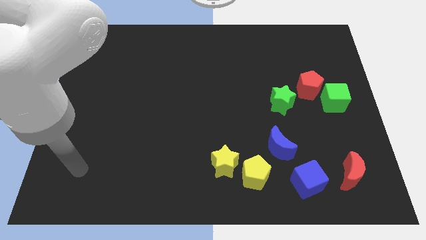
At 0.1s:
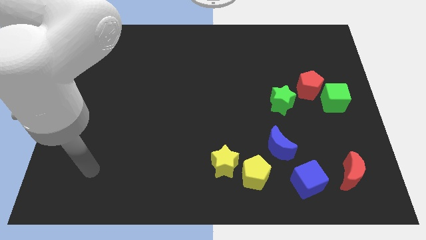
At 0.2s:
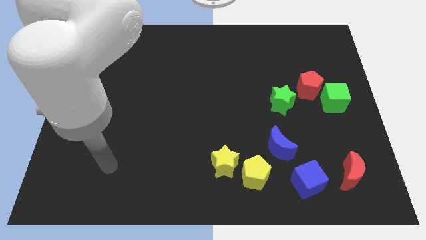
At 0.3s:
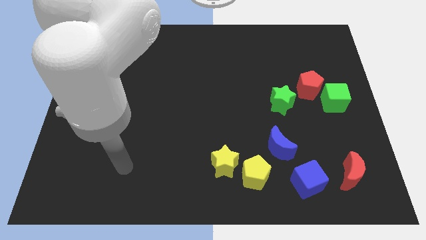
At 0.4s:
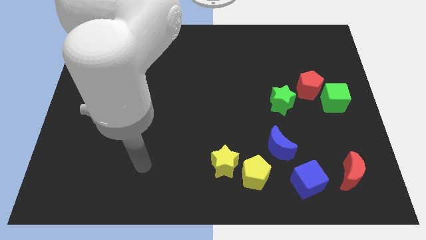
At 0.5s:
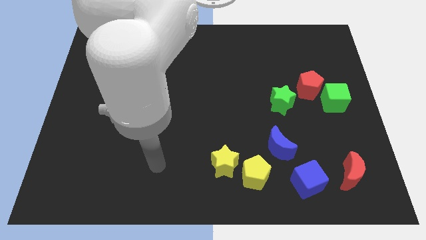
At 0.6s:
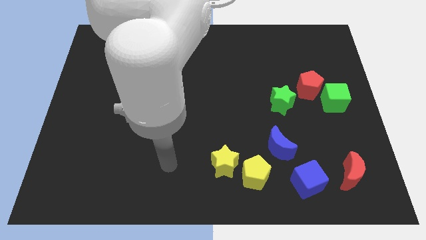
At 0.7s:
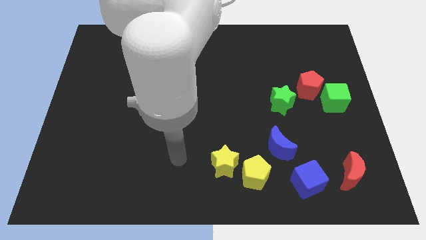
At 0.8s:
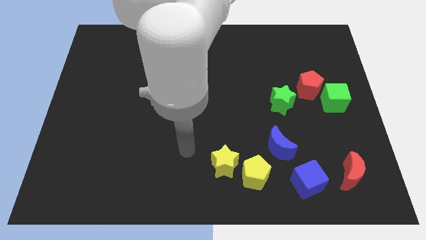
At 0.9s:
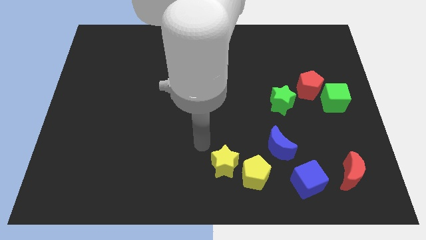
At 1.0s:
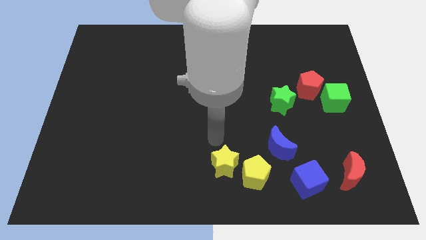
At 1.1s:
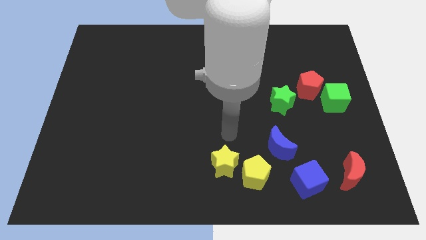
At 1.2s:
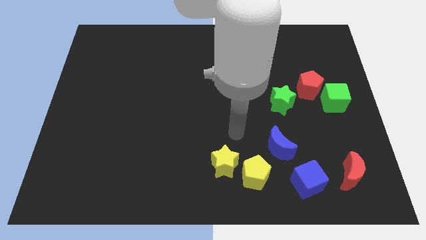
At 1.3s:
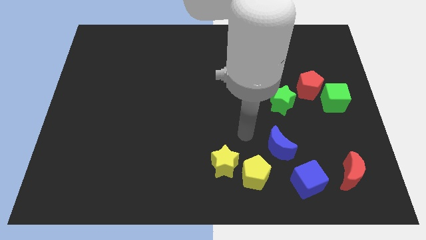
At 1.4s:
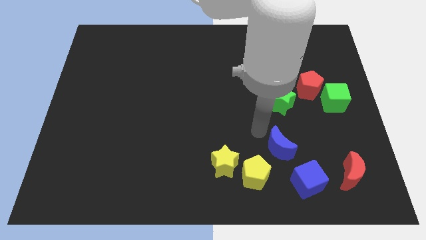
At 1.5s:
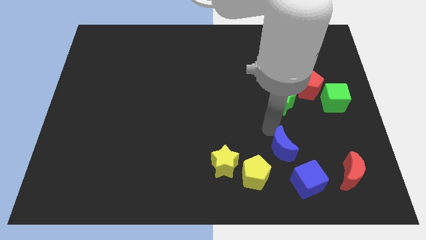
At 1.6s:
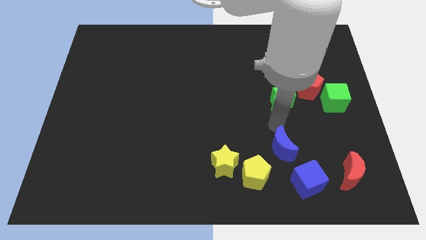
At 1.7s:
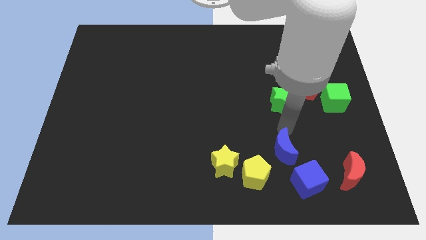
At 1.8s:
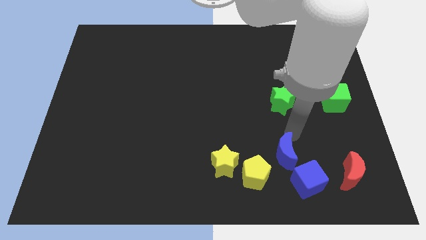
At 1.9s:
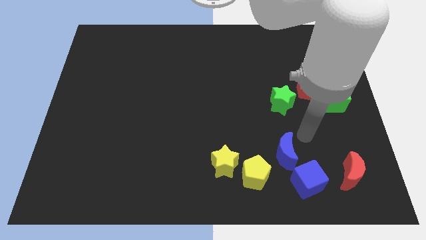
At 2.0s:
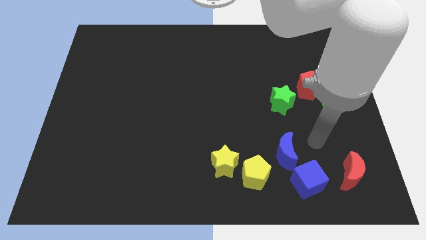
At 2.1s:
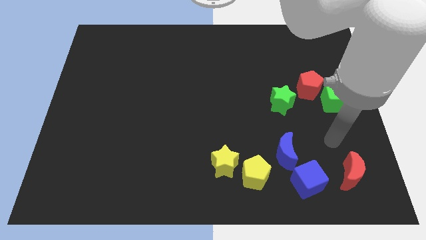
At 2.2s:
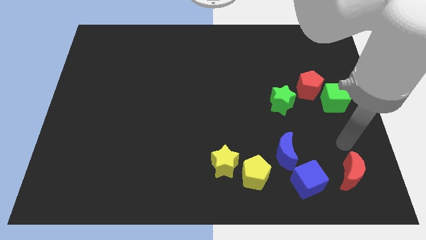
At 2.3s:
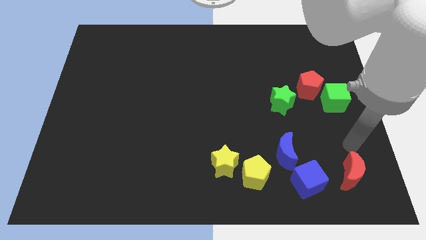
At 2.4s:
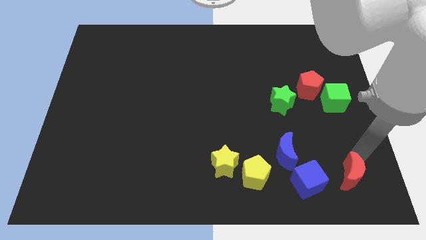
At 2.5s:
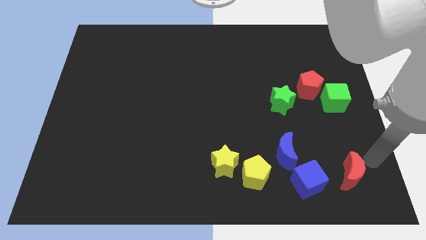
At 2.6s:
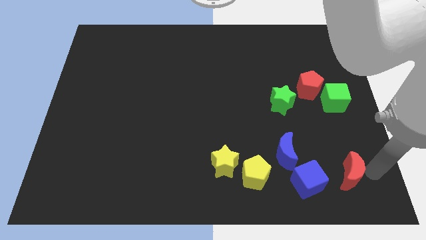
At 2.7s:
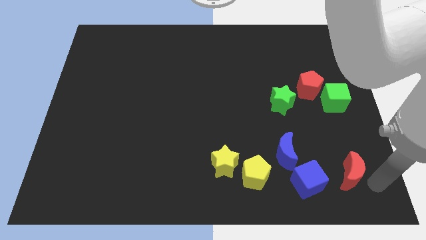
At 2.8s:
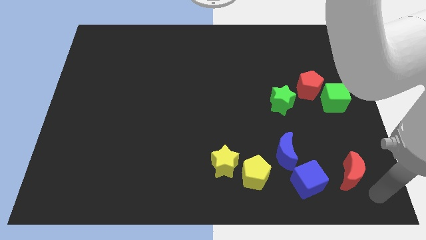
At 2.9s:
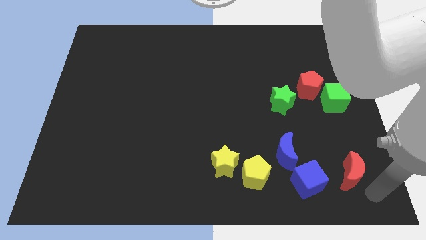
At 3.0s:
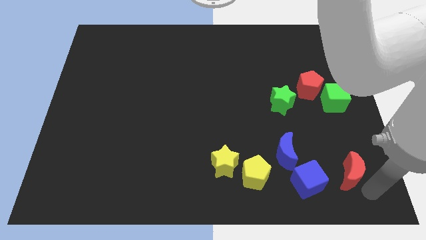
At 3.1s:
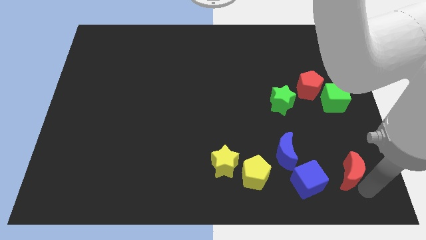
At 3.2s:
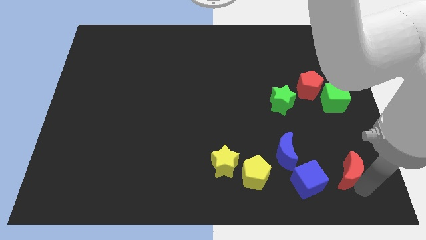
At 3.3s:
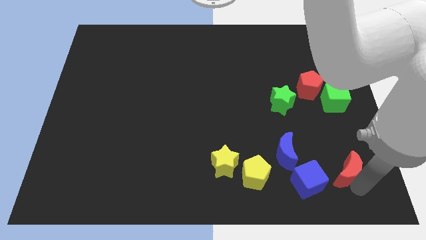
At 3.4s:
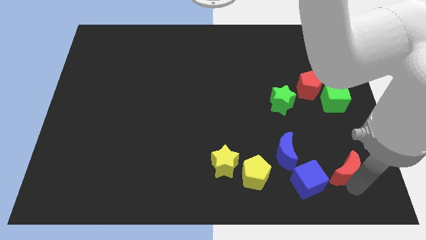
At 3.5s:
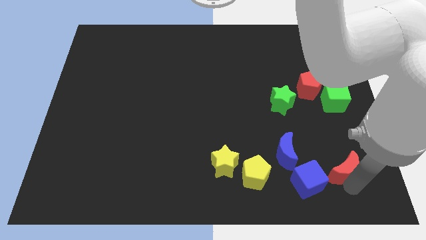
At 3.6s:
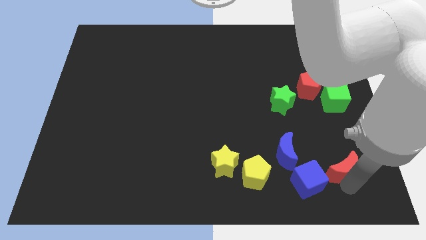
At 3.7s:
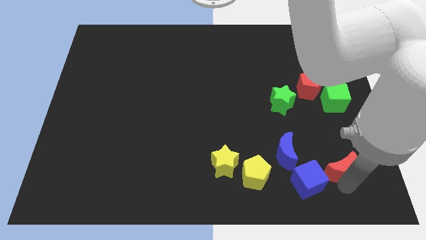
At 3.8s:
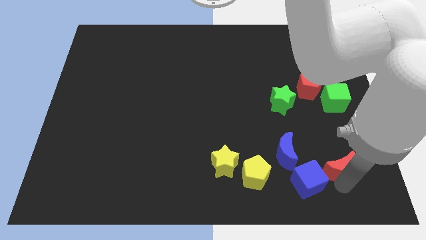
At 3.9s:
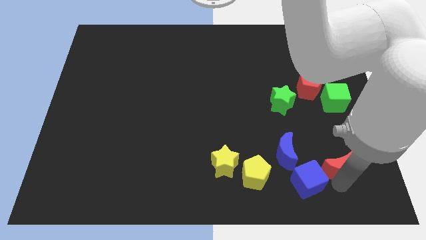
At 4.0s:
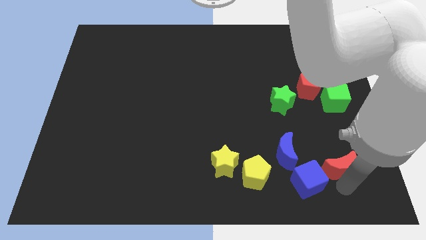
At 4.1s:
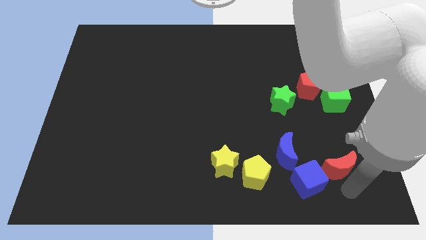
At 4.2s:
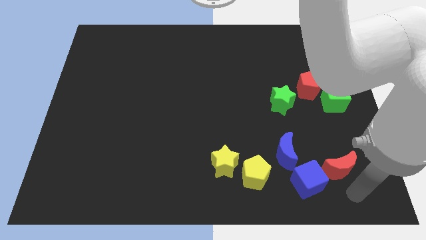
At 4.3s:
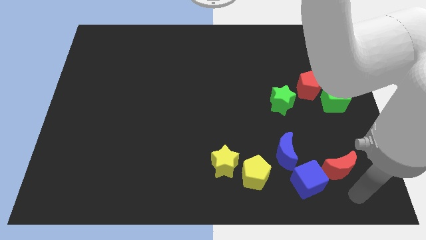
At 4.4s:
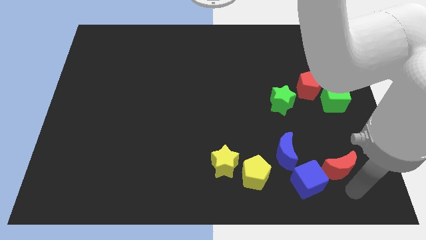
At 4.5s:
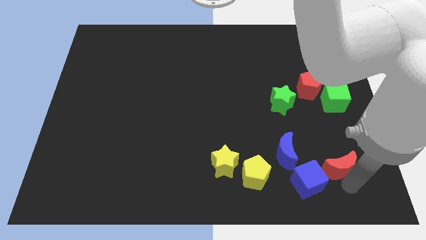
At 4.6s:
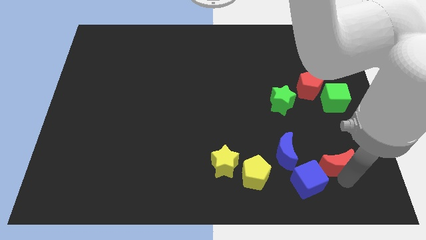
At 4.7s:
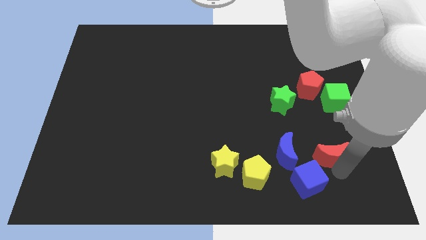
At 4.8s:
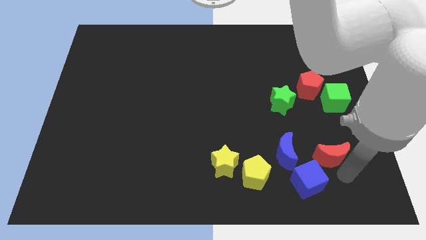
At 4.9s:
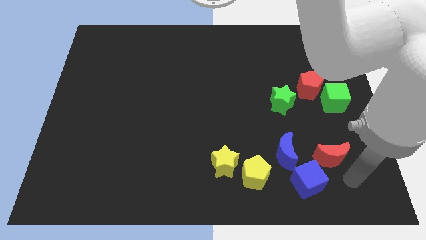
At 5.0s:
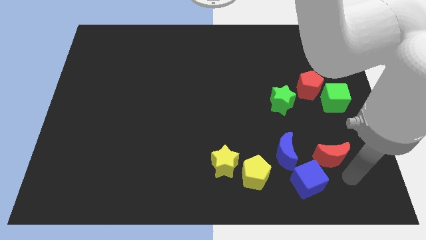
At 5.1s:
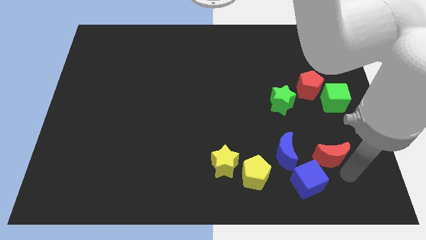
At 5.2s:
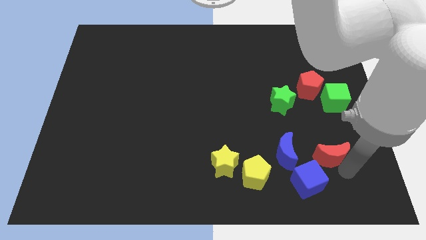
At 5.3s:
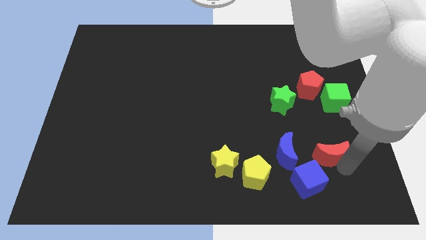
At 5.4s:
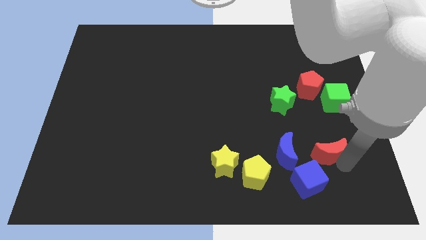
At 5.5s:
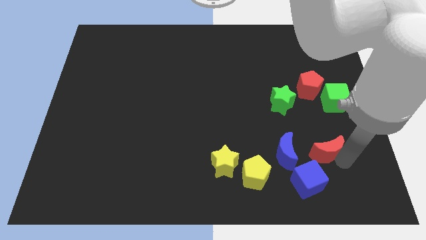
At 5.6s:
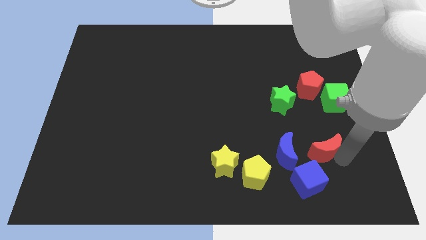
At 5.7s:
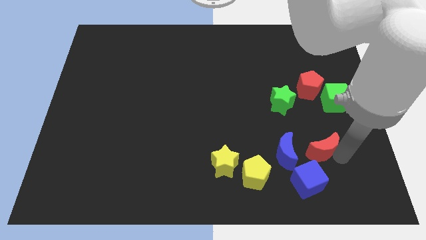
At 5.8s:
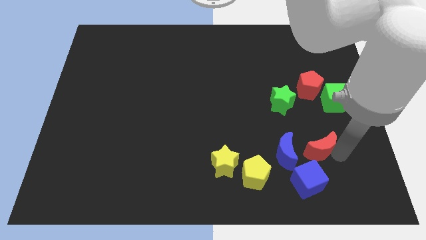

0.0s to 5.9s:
slide the red moon diagonally up and to the right of the blue moon

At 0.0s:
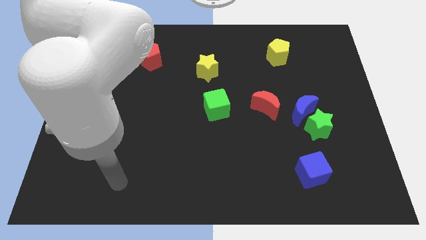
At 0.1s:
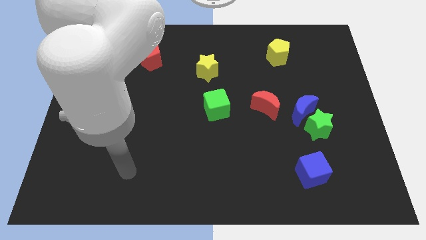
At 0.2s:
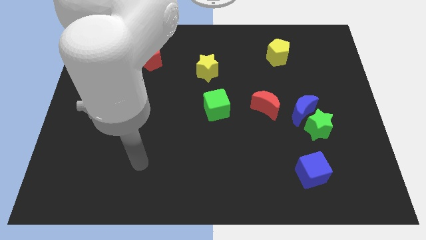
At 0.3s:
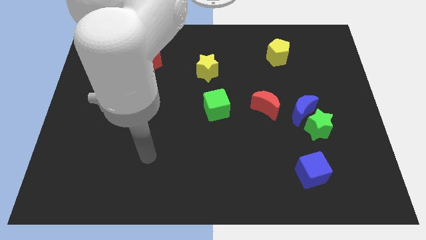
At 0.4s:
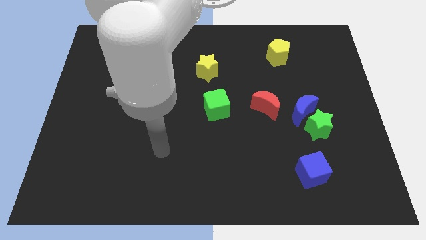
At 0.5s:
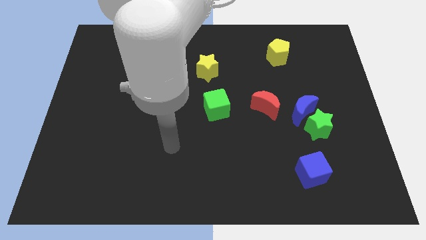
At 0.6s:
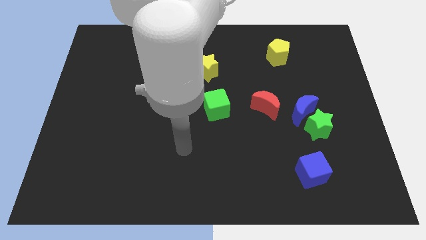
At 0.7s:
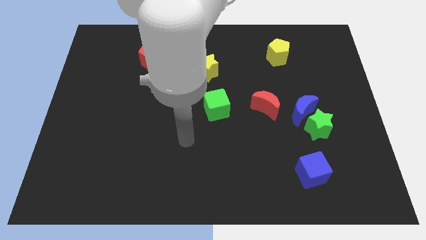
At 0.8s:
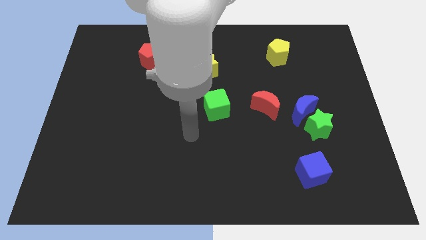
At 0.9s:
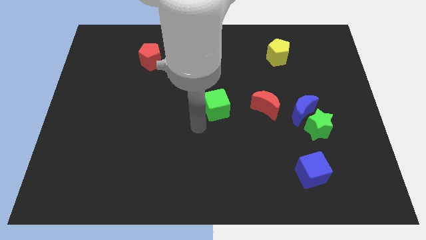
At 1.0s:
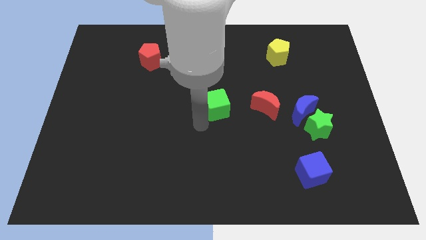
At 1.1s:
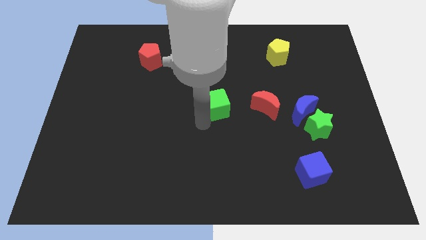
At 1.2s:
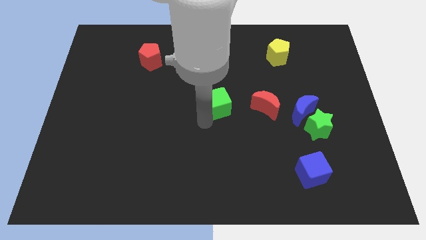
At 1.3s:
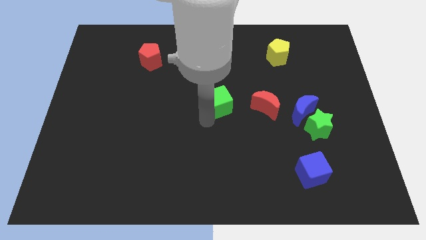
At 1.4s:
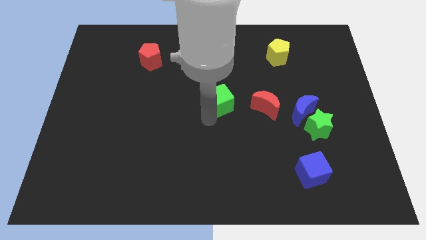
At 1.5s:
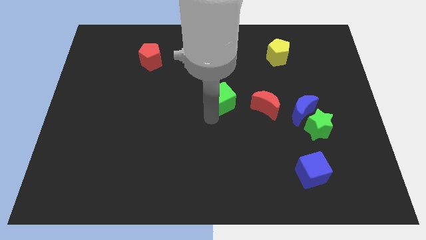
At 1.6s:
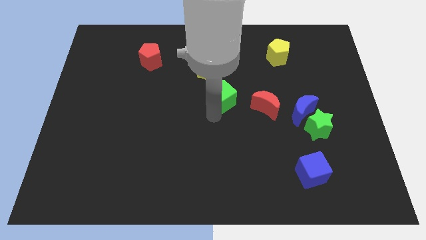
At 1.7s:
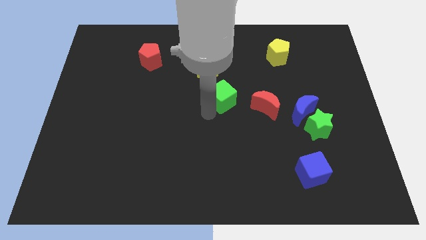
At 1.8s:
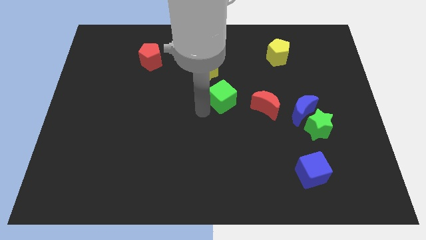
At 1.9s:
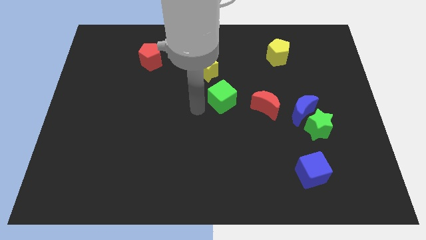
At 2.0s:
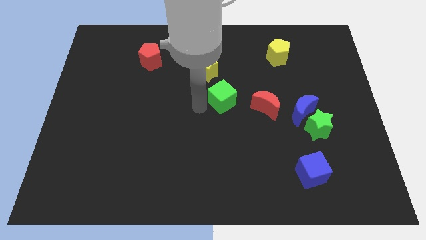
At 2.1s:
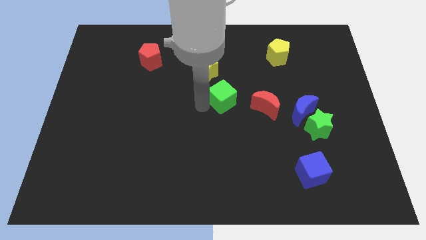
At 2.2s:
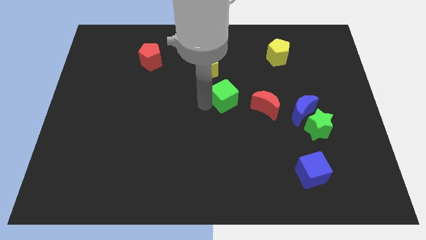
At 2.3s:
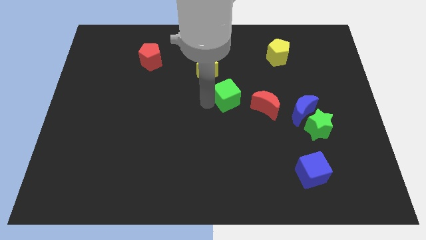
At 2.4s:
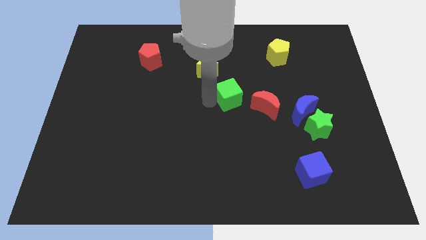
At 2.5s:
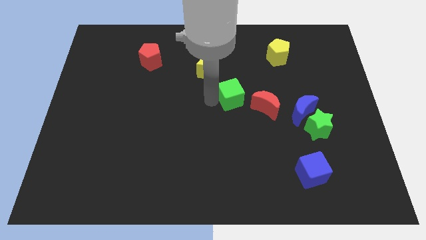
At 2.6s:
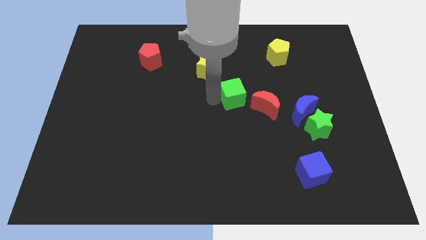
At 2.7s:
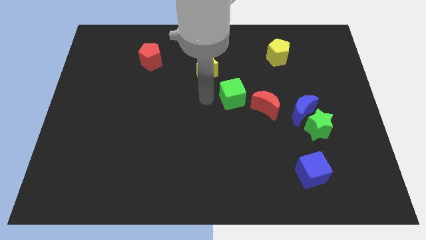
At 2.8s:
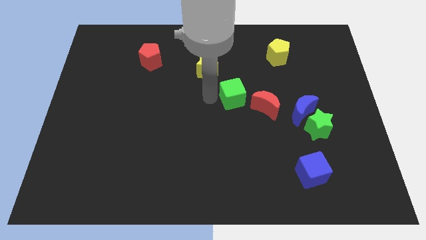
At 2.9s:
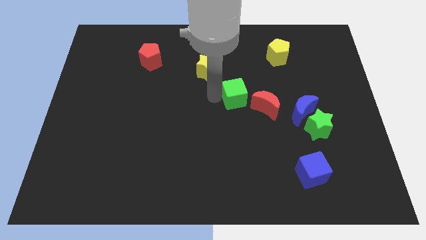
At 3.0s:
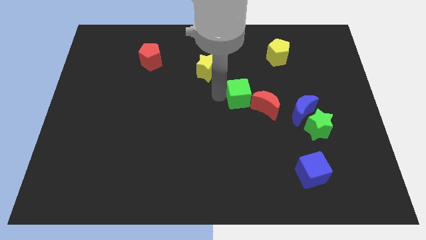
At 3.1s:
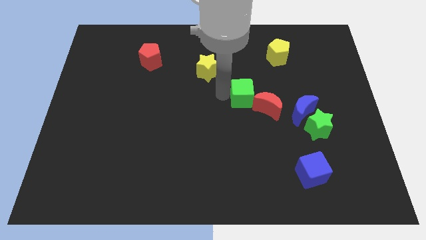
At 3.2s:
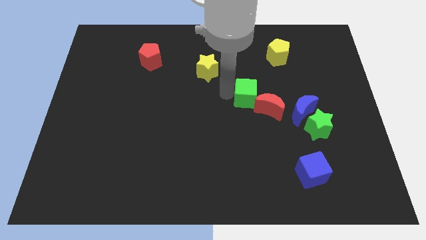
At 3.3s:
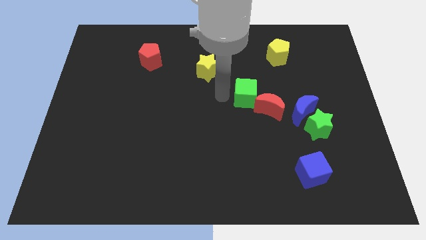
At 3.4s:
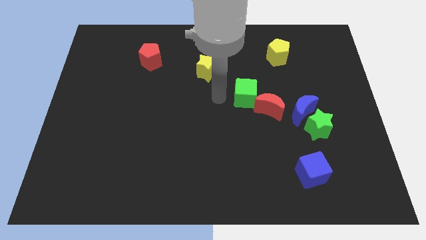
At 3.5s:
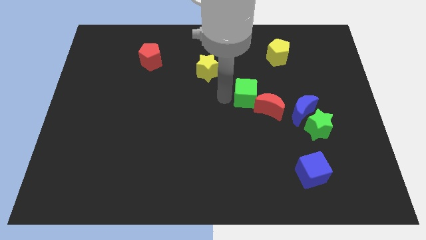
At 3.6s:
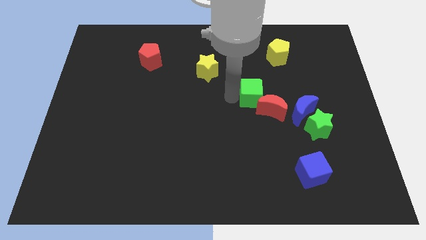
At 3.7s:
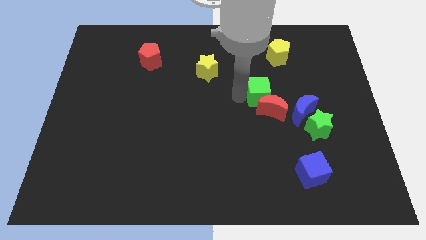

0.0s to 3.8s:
move the green cube to the top left of the blue moon
